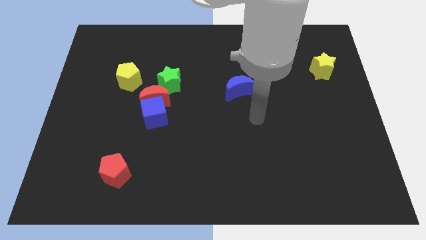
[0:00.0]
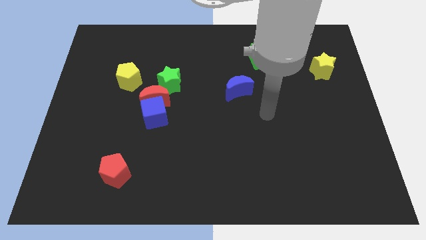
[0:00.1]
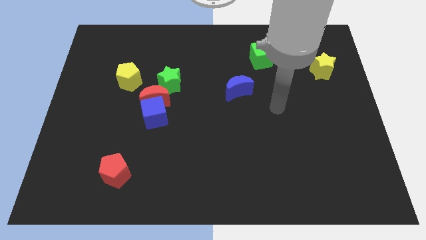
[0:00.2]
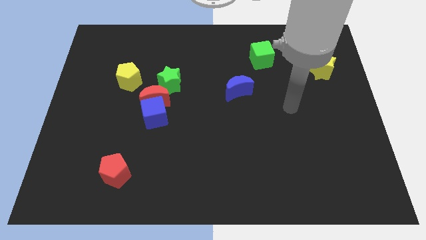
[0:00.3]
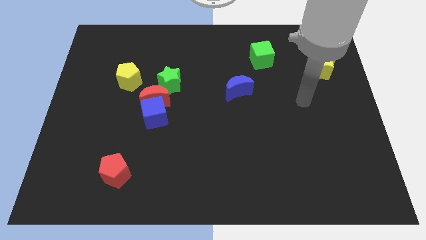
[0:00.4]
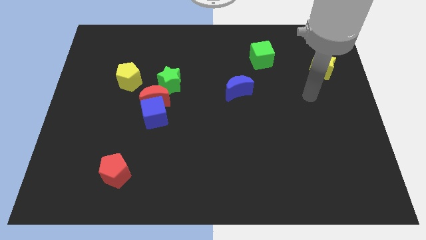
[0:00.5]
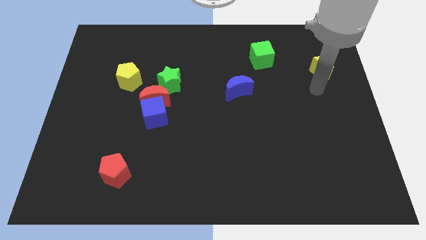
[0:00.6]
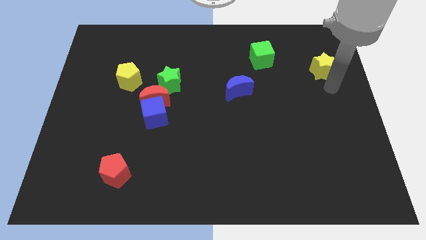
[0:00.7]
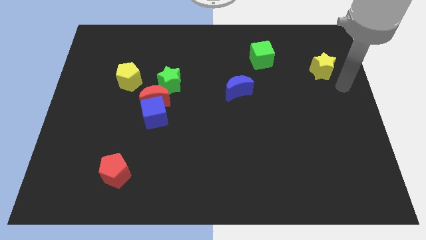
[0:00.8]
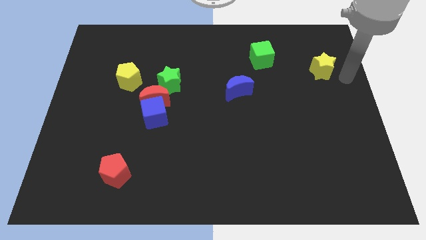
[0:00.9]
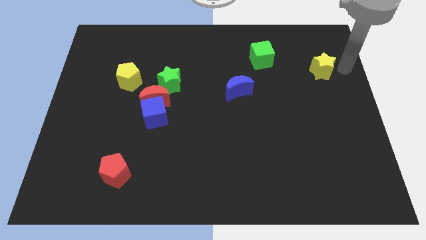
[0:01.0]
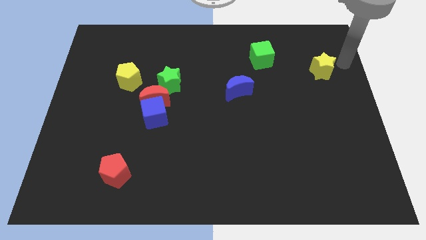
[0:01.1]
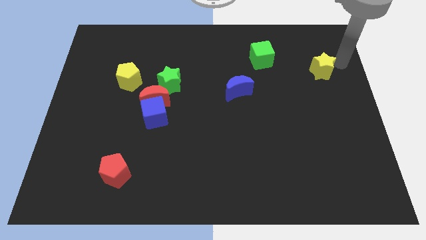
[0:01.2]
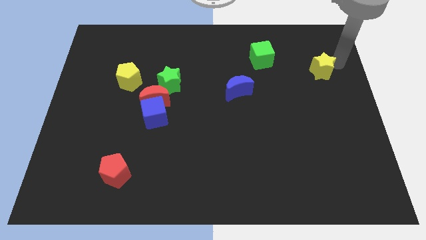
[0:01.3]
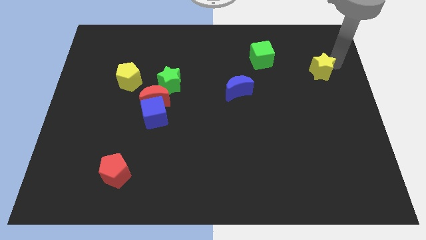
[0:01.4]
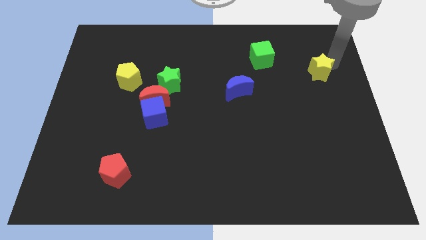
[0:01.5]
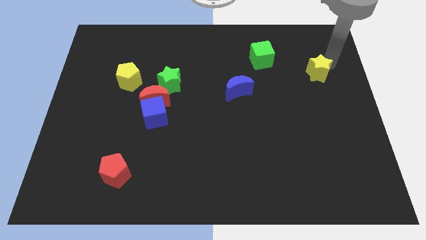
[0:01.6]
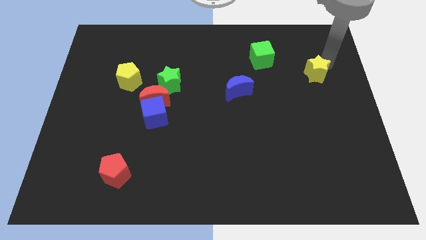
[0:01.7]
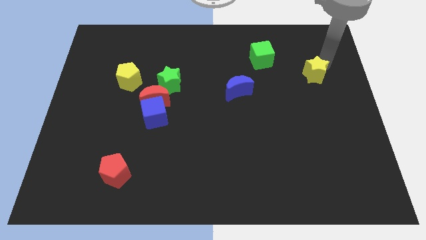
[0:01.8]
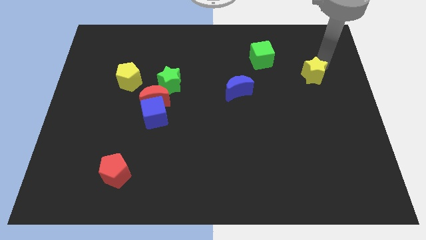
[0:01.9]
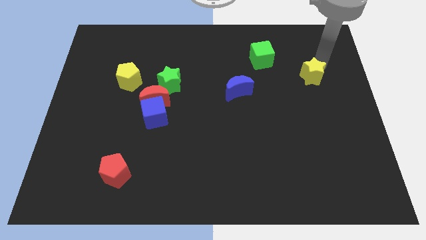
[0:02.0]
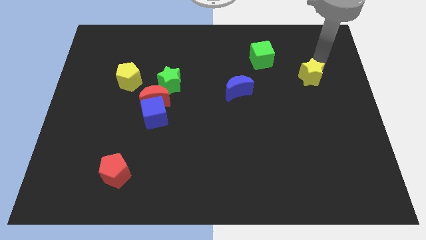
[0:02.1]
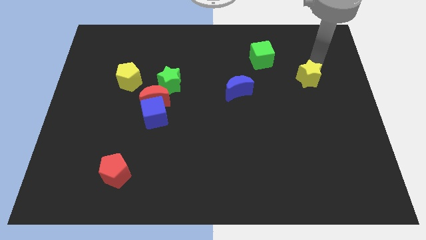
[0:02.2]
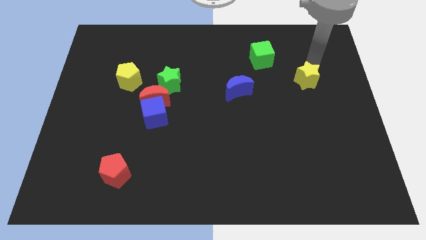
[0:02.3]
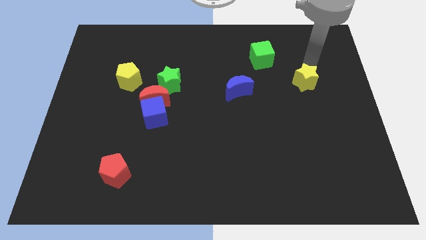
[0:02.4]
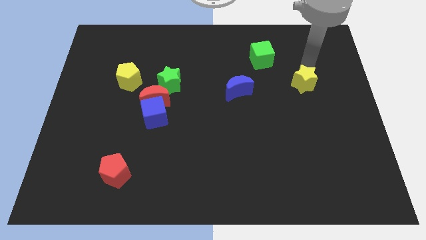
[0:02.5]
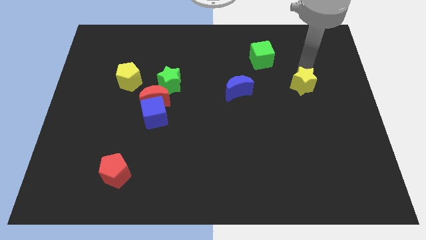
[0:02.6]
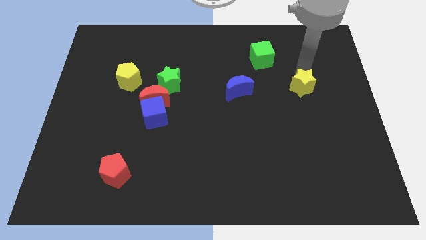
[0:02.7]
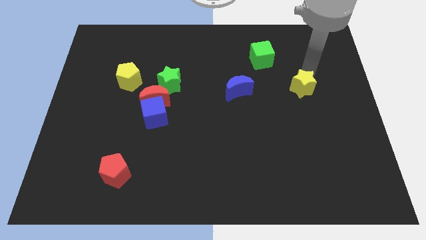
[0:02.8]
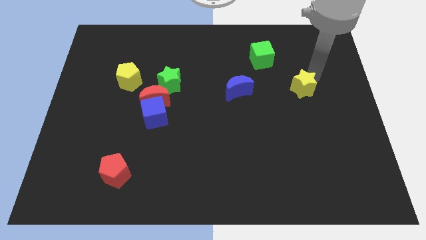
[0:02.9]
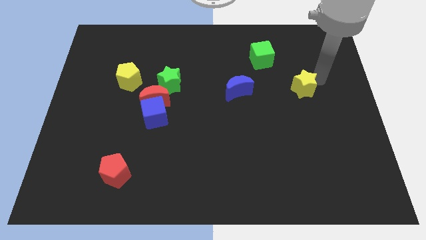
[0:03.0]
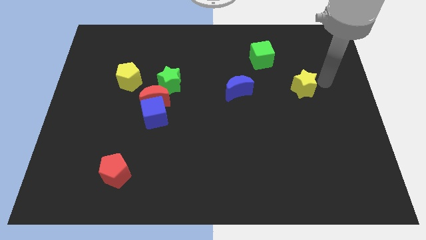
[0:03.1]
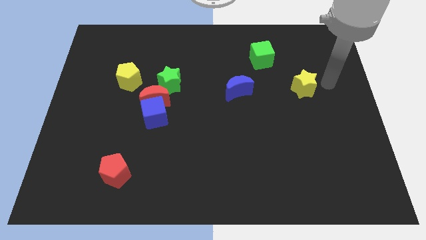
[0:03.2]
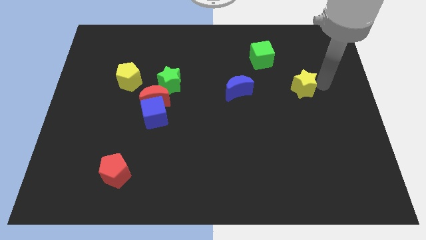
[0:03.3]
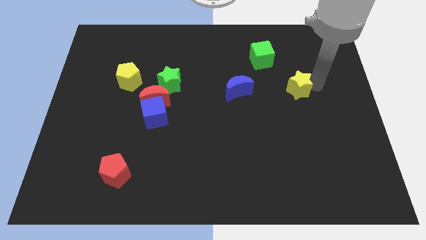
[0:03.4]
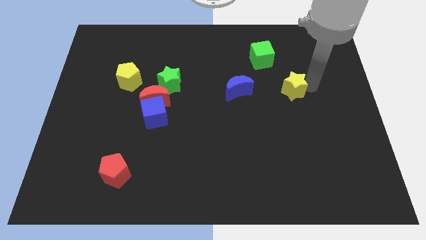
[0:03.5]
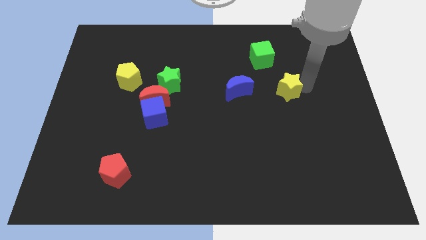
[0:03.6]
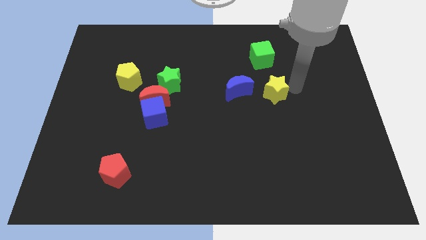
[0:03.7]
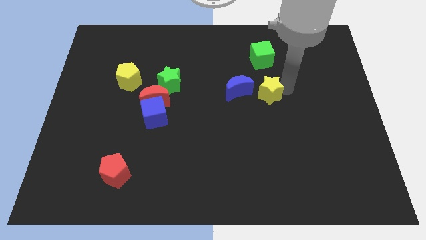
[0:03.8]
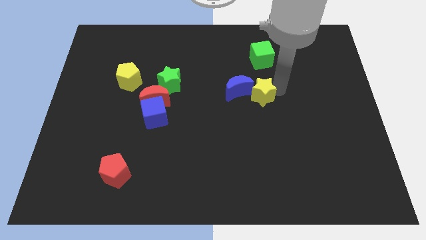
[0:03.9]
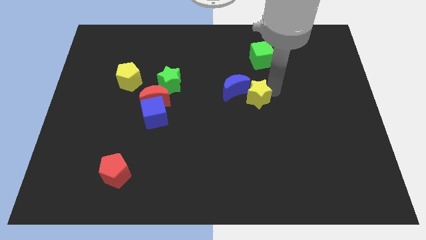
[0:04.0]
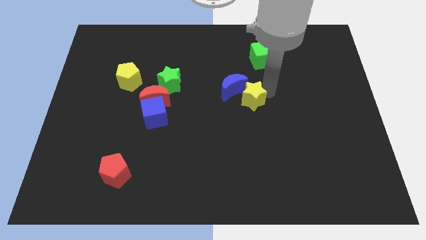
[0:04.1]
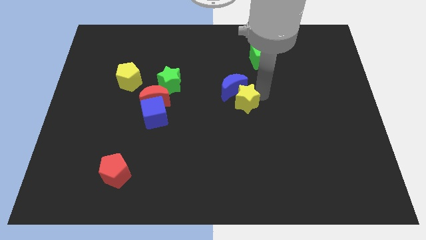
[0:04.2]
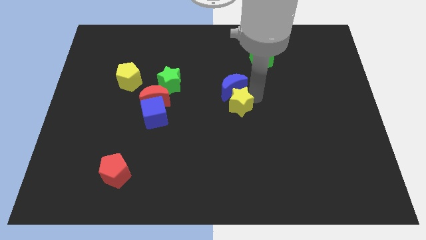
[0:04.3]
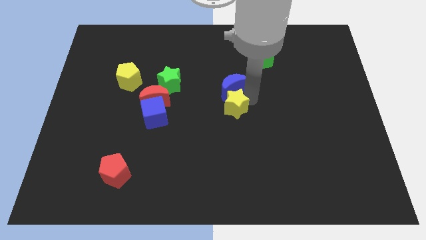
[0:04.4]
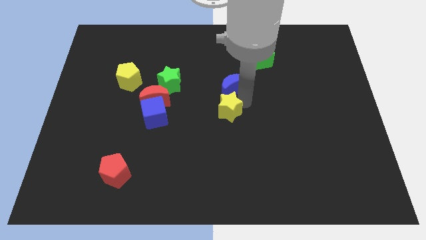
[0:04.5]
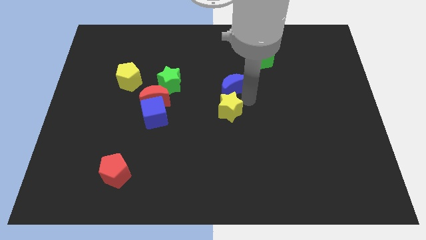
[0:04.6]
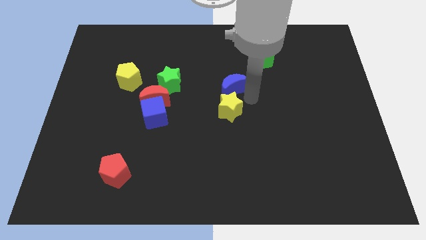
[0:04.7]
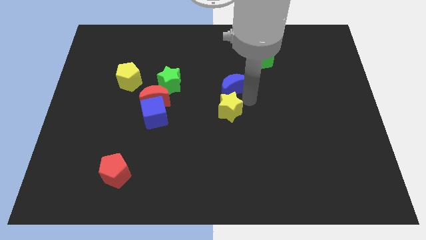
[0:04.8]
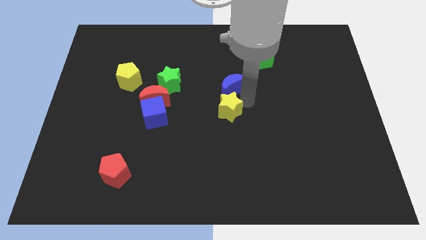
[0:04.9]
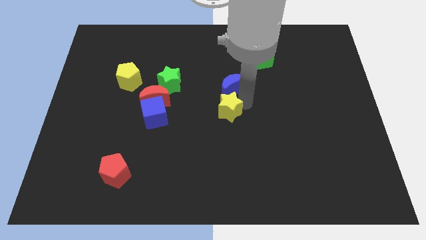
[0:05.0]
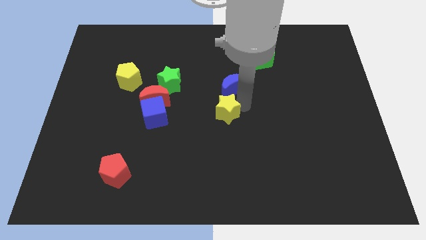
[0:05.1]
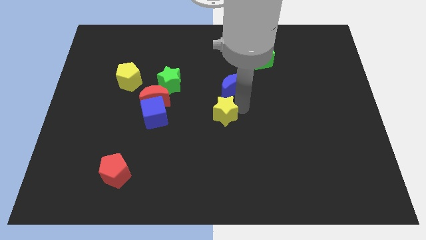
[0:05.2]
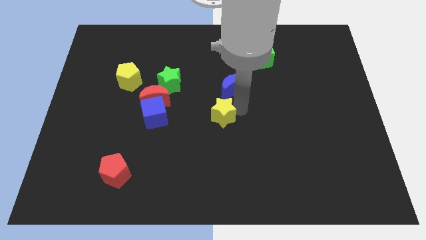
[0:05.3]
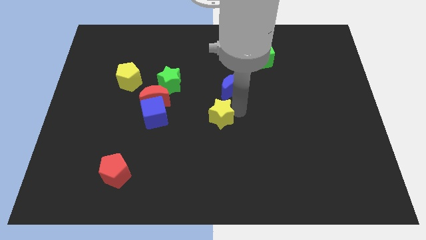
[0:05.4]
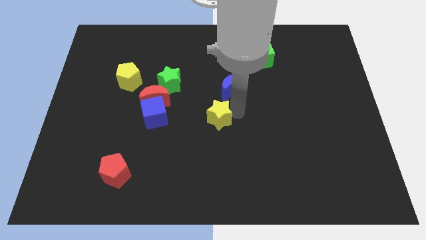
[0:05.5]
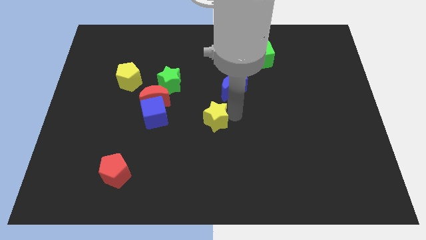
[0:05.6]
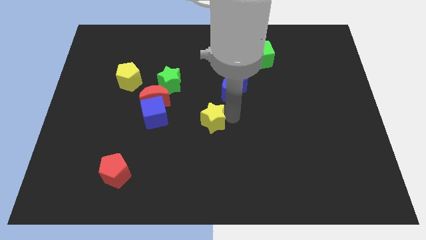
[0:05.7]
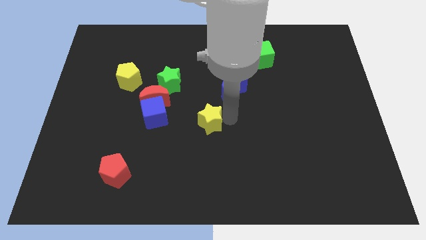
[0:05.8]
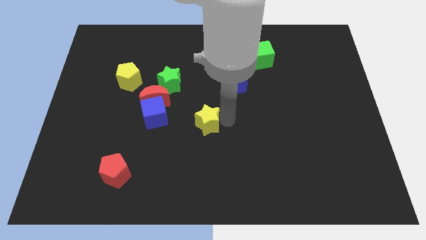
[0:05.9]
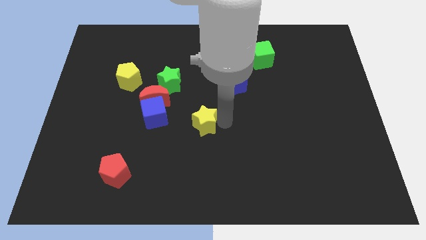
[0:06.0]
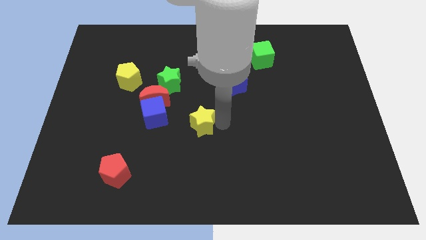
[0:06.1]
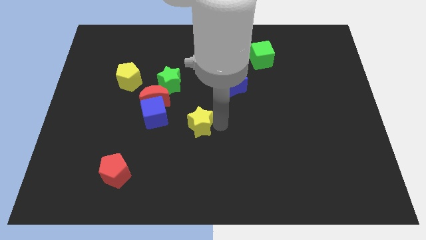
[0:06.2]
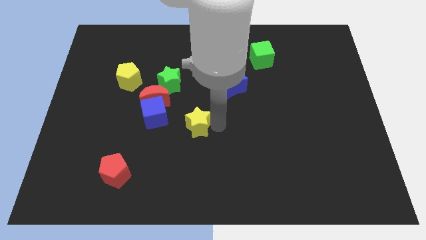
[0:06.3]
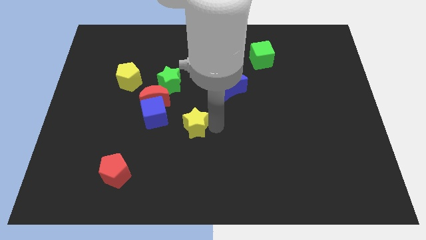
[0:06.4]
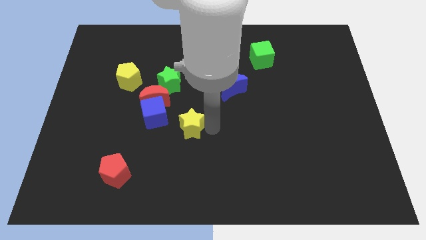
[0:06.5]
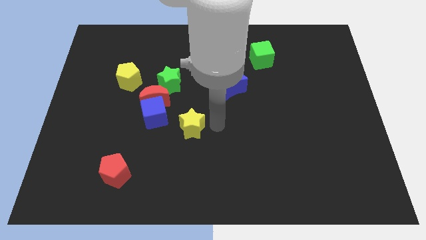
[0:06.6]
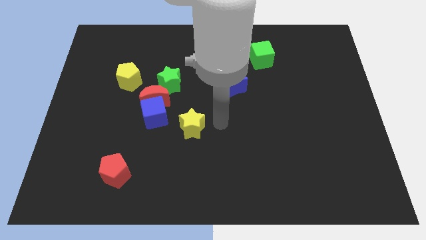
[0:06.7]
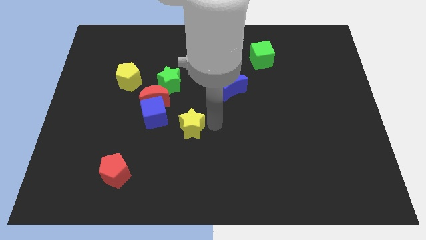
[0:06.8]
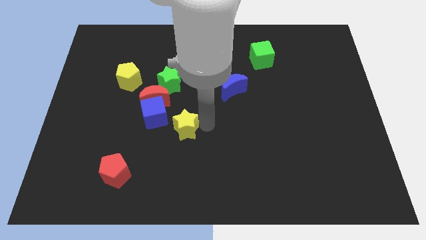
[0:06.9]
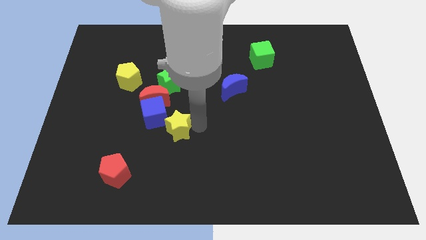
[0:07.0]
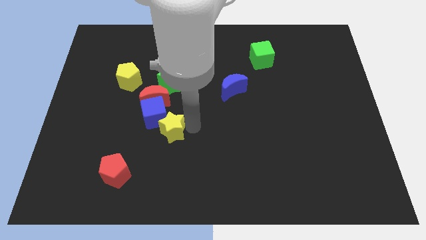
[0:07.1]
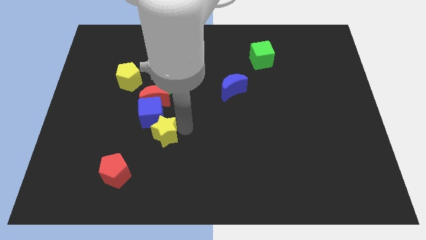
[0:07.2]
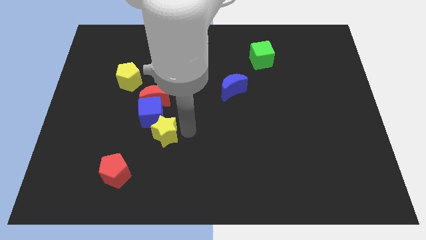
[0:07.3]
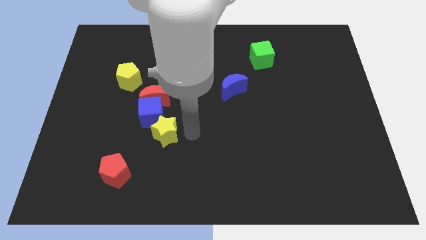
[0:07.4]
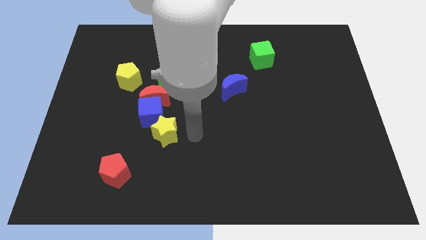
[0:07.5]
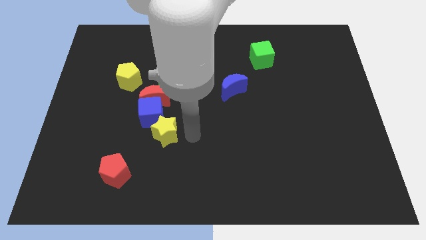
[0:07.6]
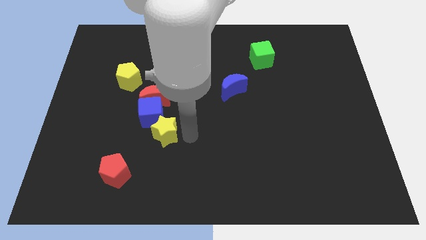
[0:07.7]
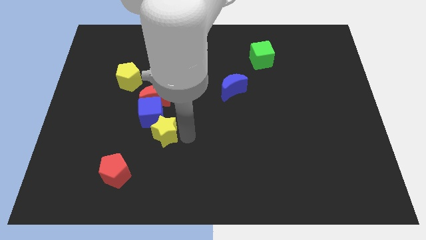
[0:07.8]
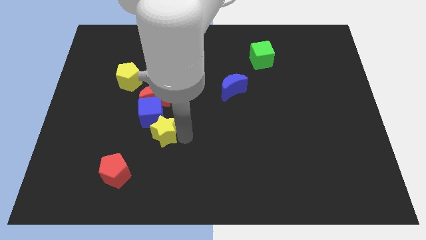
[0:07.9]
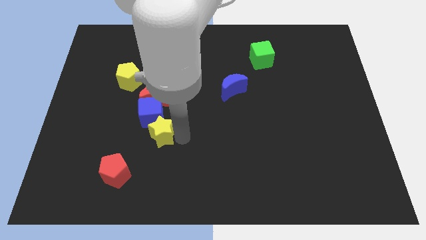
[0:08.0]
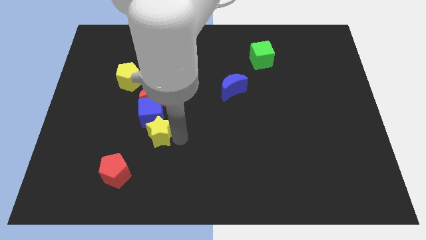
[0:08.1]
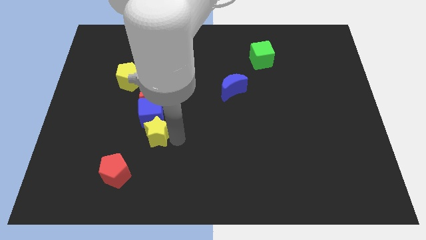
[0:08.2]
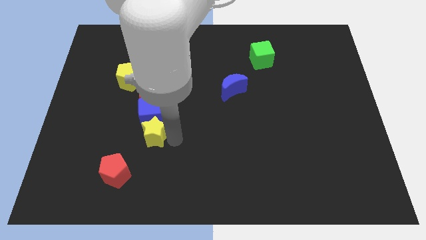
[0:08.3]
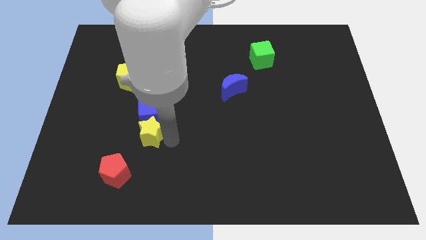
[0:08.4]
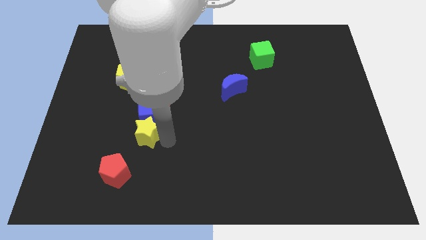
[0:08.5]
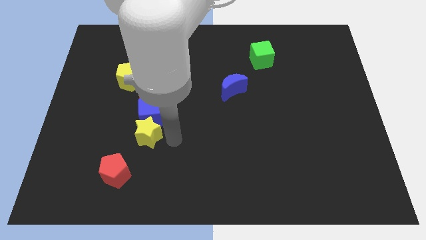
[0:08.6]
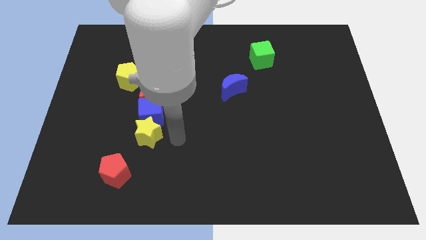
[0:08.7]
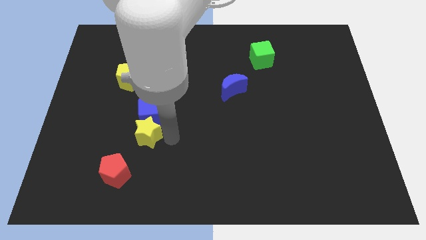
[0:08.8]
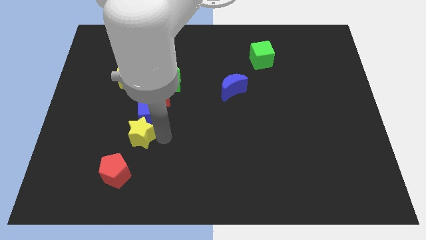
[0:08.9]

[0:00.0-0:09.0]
slide the yellow star to the top side of the red pentagon
